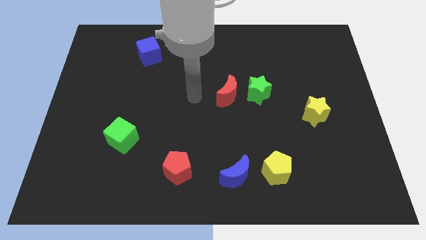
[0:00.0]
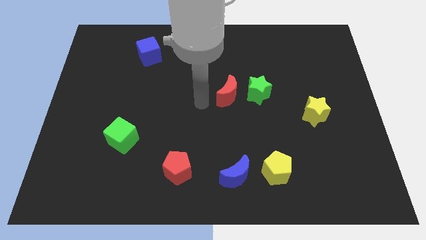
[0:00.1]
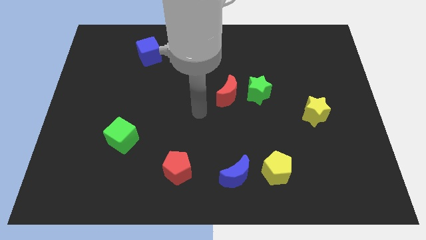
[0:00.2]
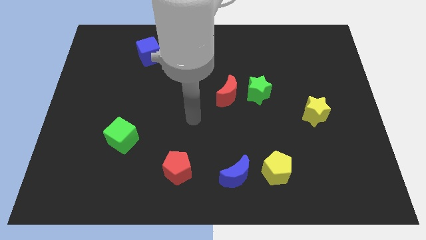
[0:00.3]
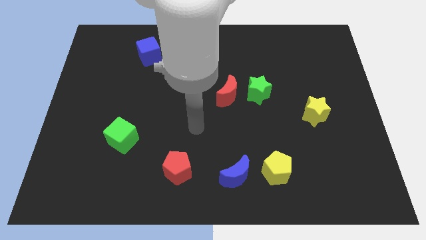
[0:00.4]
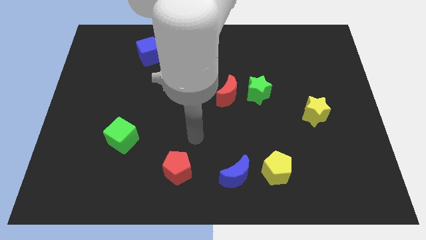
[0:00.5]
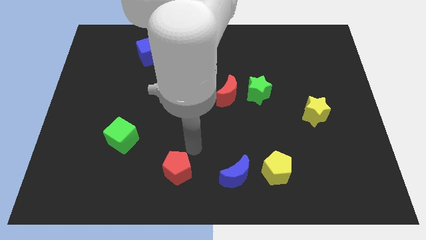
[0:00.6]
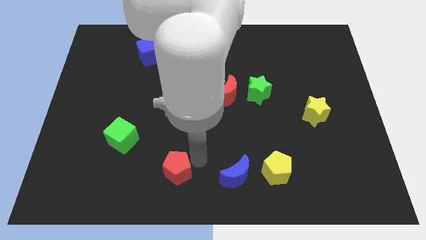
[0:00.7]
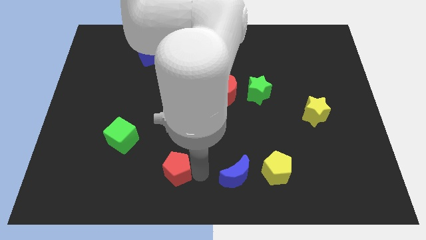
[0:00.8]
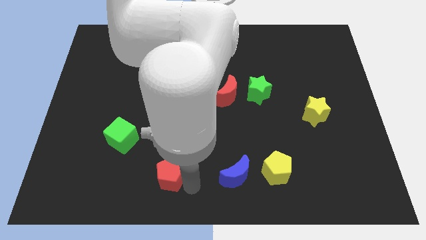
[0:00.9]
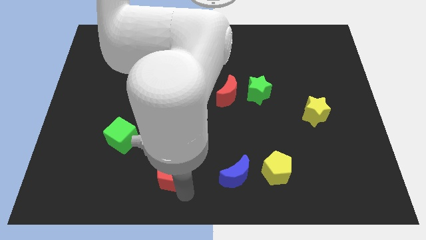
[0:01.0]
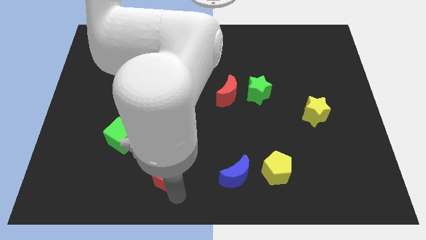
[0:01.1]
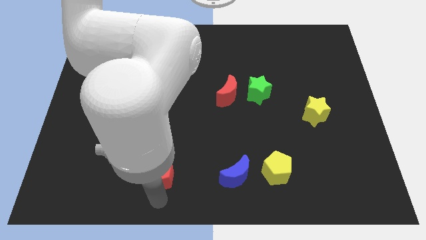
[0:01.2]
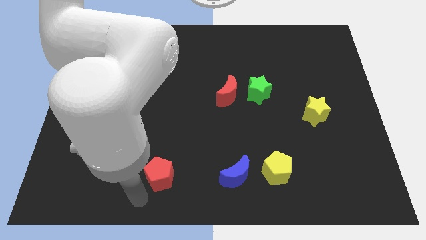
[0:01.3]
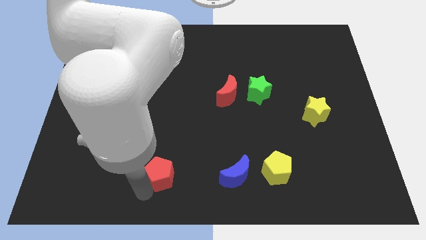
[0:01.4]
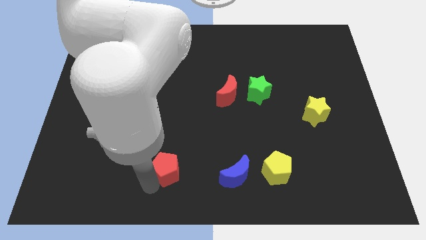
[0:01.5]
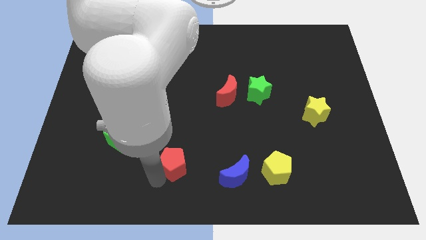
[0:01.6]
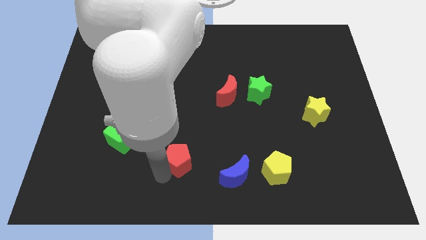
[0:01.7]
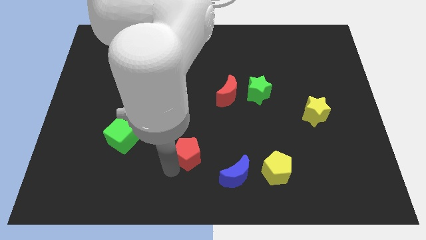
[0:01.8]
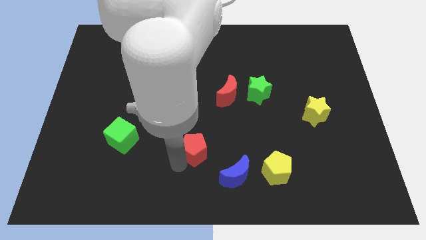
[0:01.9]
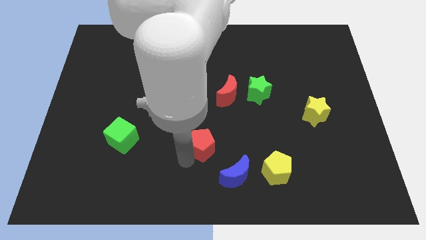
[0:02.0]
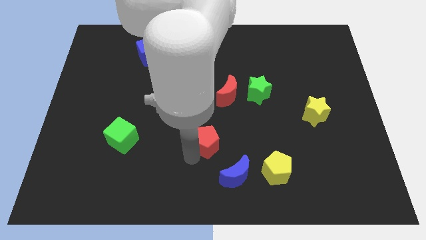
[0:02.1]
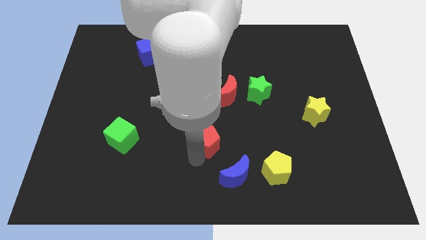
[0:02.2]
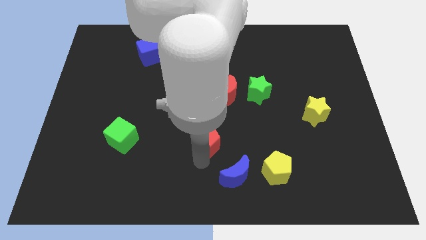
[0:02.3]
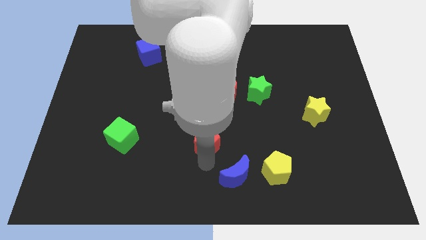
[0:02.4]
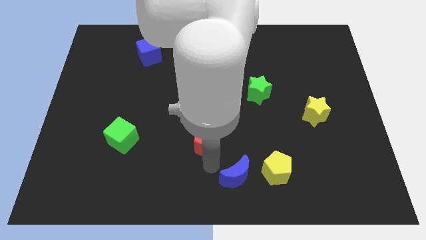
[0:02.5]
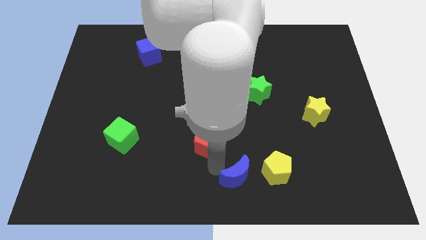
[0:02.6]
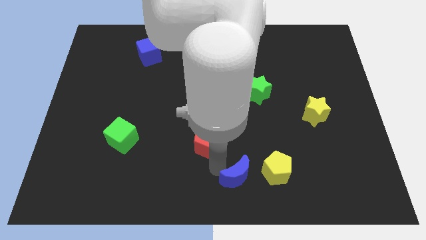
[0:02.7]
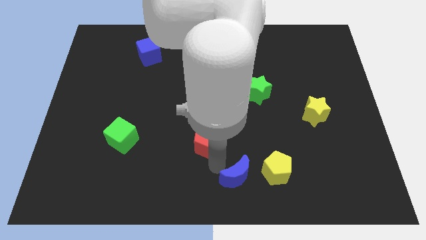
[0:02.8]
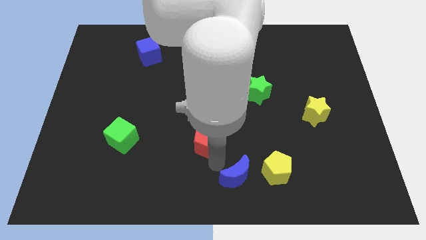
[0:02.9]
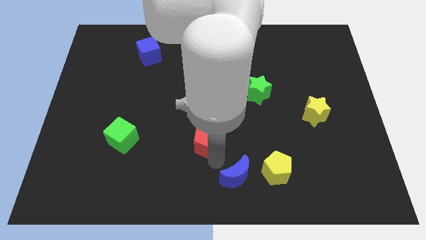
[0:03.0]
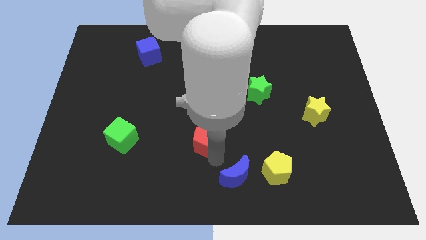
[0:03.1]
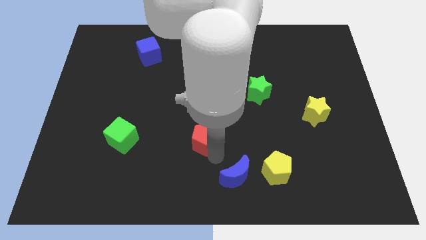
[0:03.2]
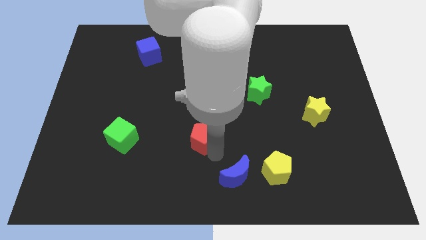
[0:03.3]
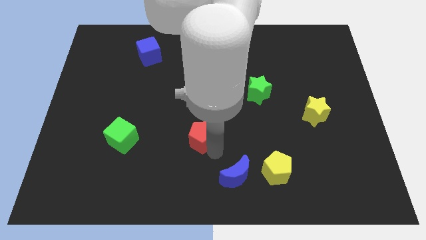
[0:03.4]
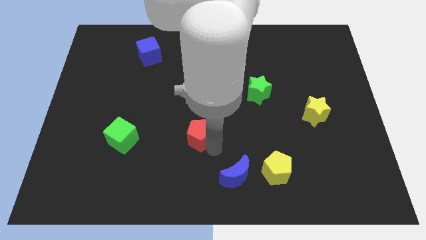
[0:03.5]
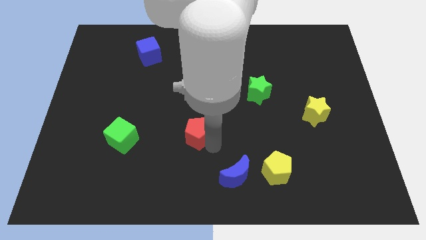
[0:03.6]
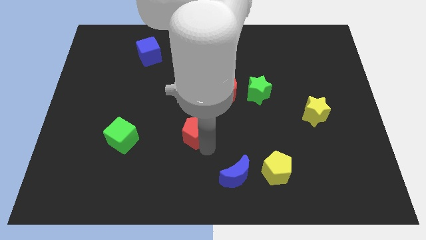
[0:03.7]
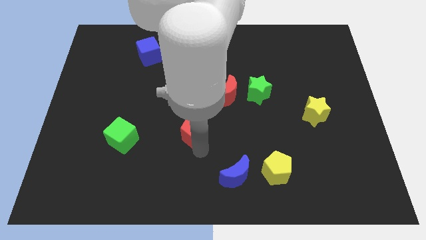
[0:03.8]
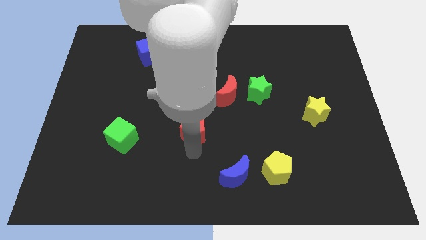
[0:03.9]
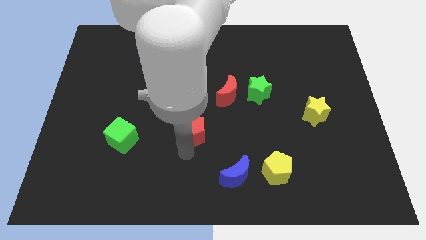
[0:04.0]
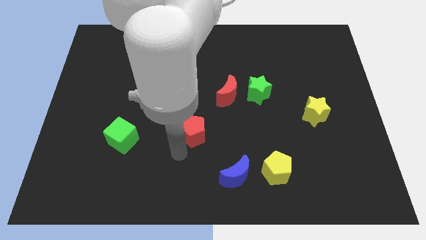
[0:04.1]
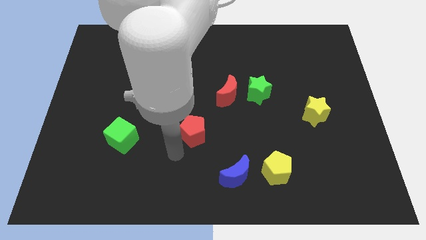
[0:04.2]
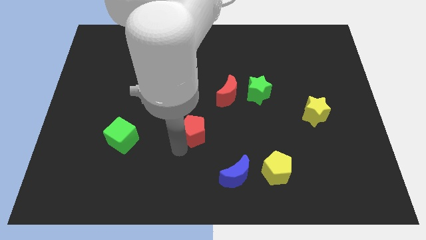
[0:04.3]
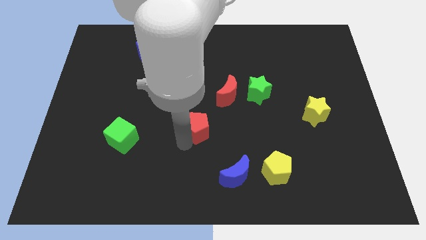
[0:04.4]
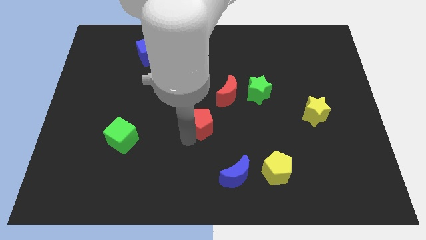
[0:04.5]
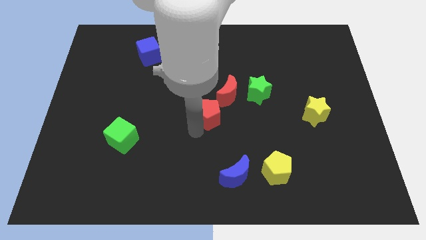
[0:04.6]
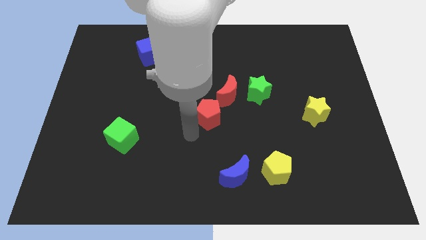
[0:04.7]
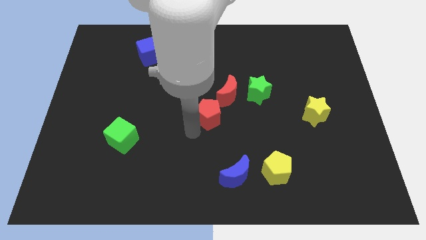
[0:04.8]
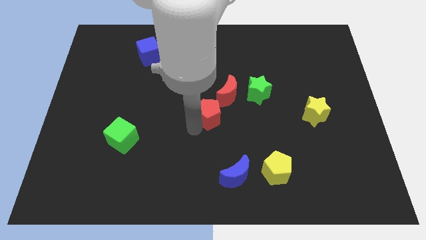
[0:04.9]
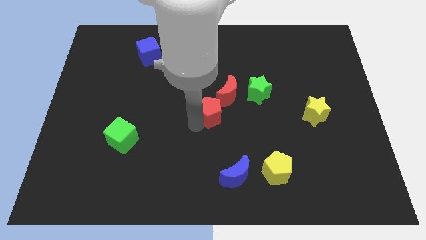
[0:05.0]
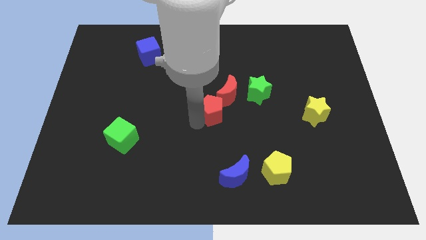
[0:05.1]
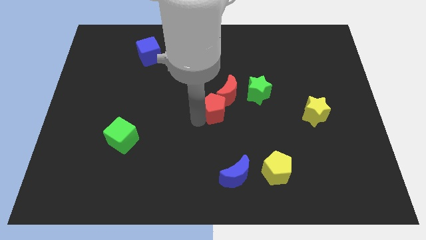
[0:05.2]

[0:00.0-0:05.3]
move the red pentagon to the red moon

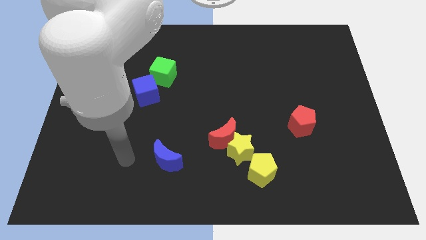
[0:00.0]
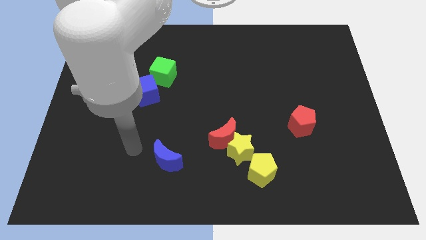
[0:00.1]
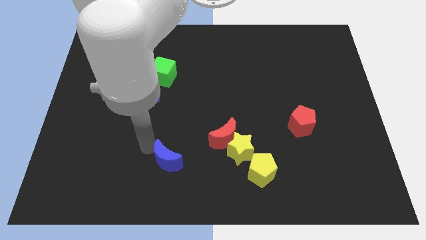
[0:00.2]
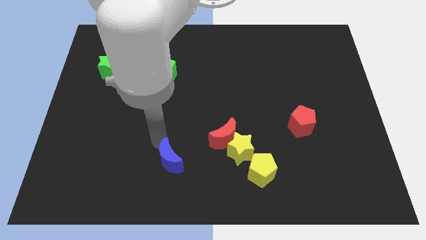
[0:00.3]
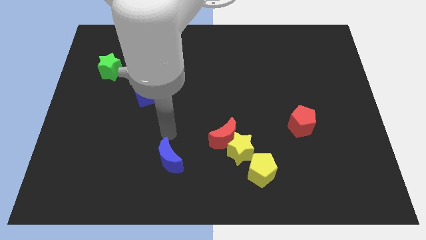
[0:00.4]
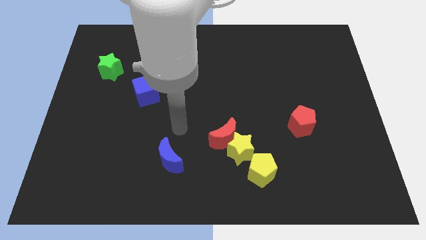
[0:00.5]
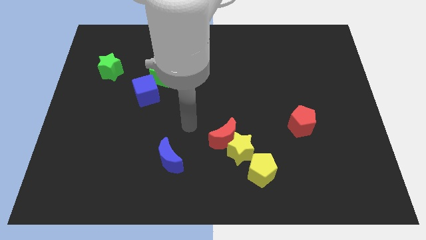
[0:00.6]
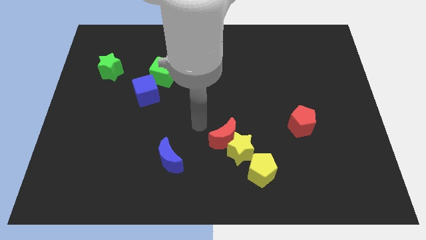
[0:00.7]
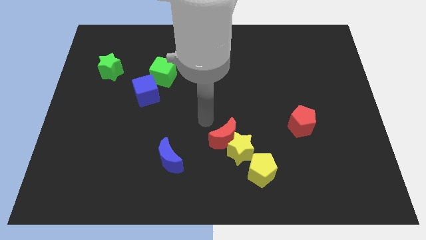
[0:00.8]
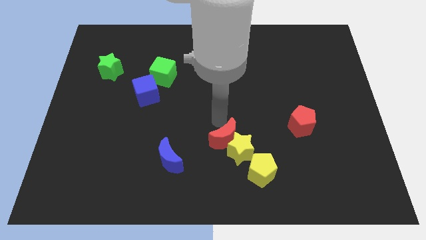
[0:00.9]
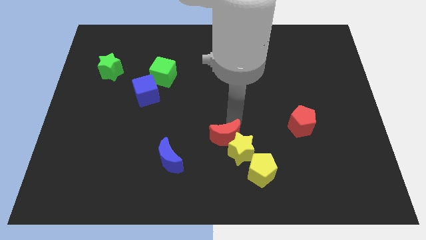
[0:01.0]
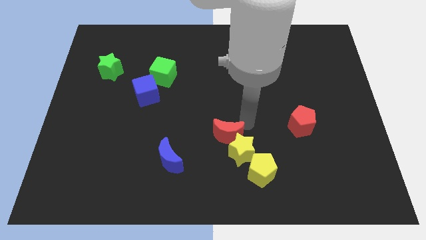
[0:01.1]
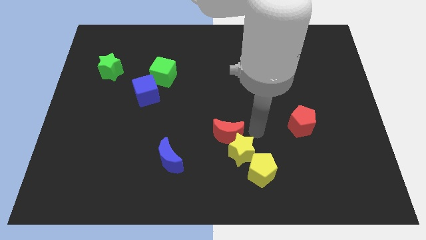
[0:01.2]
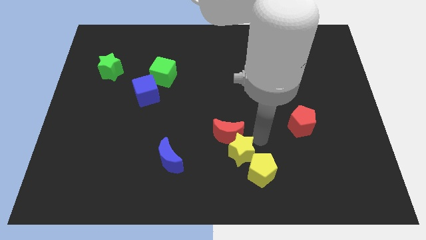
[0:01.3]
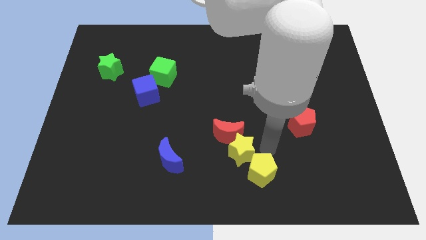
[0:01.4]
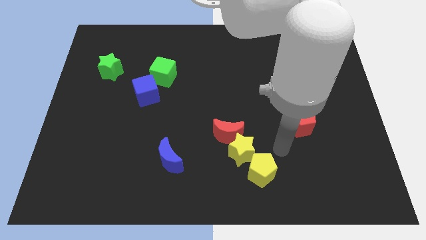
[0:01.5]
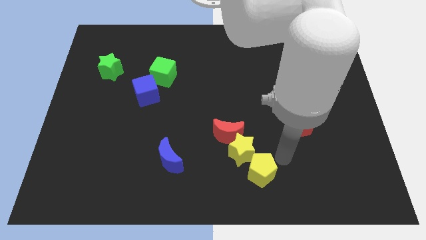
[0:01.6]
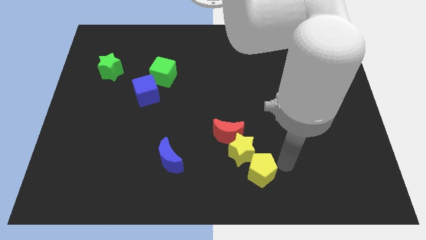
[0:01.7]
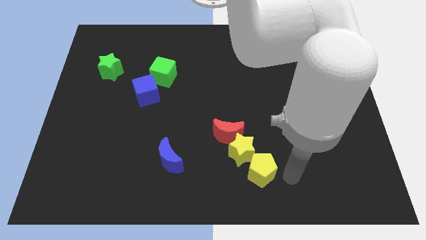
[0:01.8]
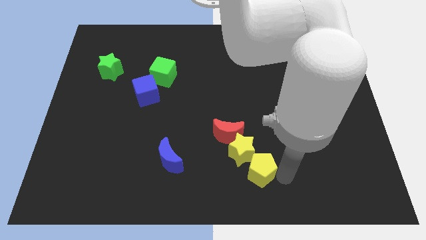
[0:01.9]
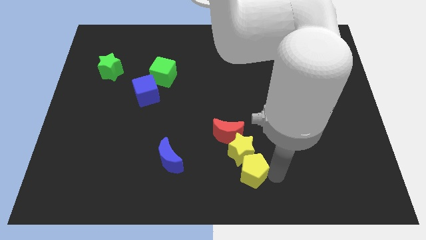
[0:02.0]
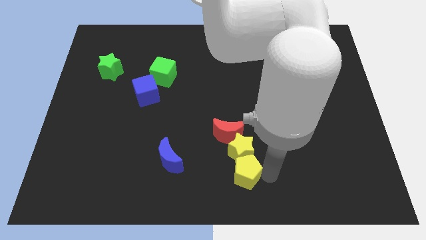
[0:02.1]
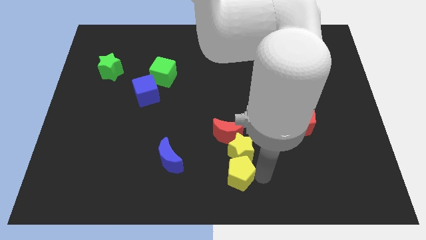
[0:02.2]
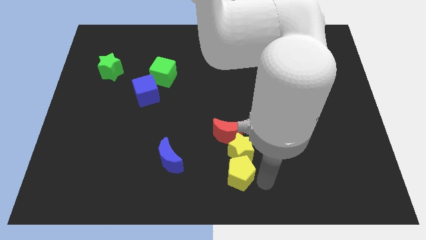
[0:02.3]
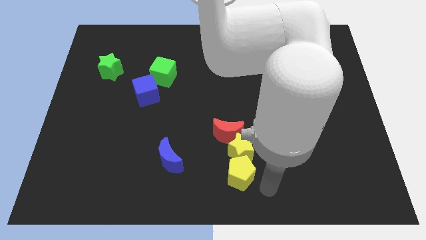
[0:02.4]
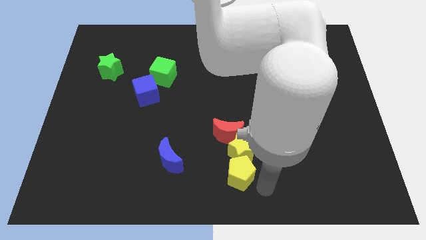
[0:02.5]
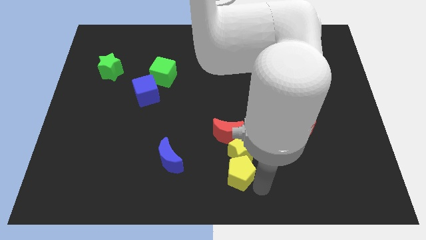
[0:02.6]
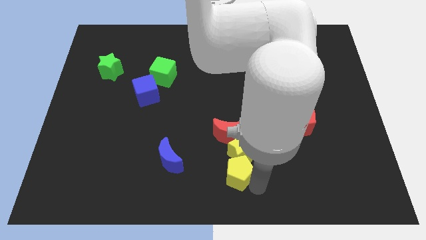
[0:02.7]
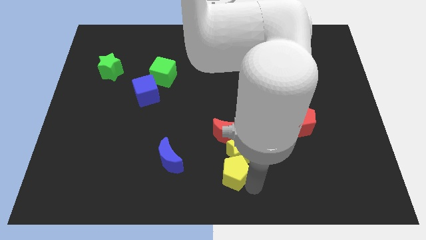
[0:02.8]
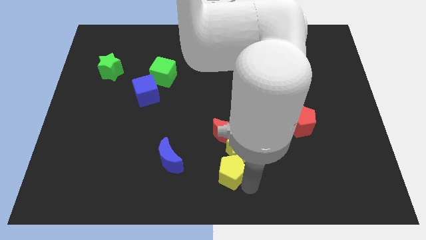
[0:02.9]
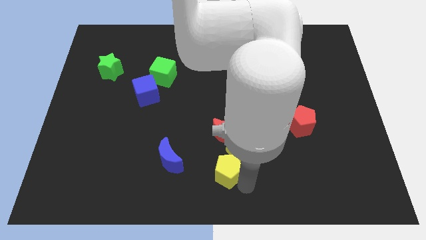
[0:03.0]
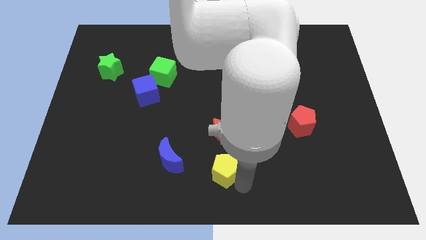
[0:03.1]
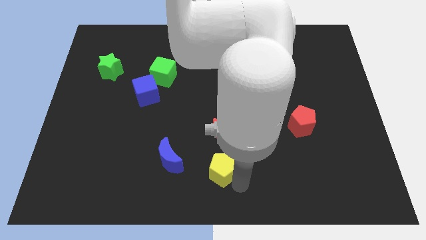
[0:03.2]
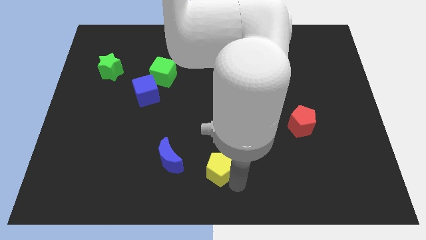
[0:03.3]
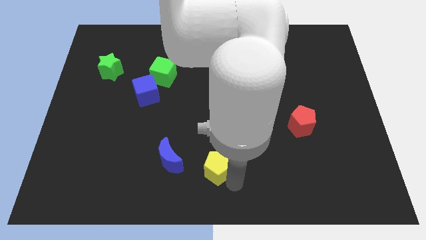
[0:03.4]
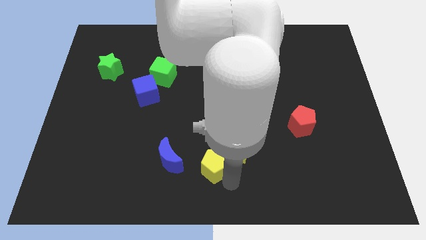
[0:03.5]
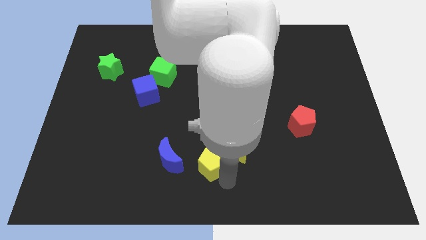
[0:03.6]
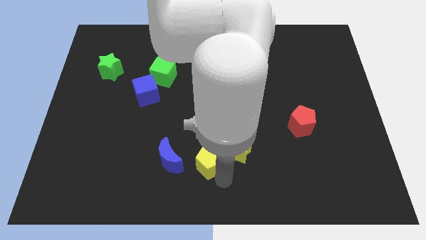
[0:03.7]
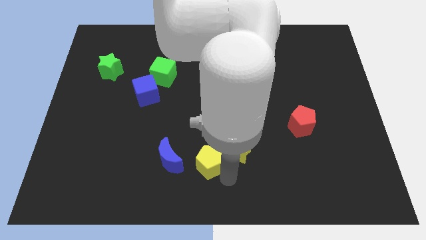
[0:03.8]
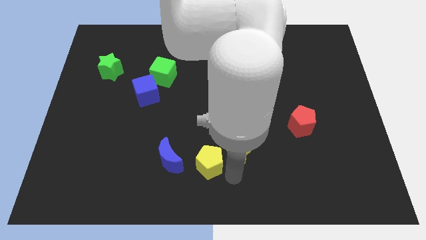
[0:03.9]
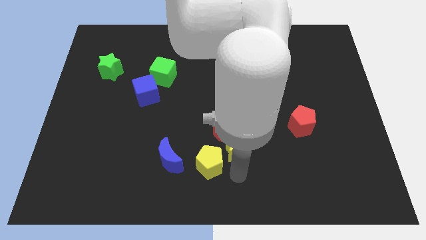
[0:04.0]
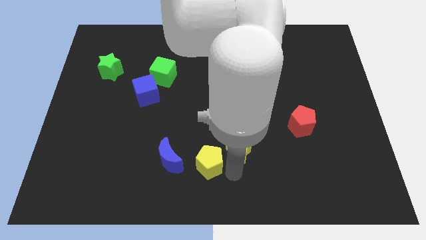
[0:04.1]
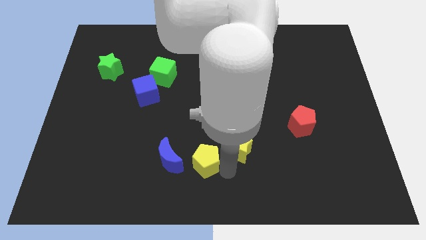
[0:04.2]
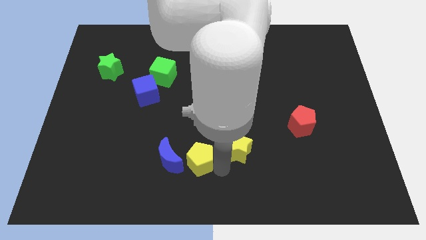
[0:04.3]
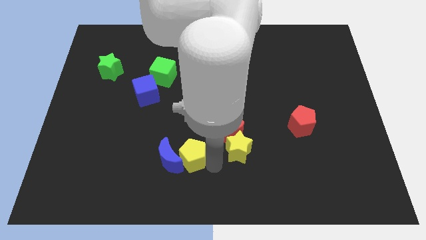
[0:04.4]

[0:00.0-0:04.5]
put the yellow pentagon to the blue moon
